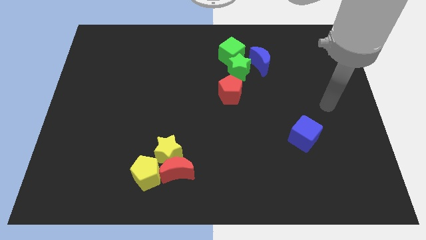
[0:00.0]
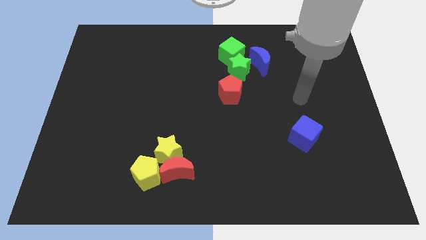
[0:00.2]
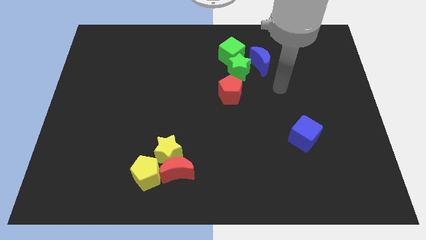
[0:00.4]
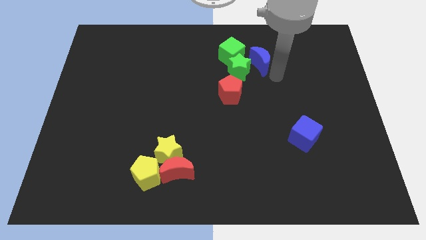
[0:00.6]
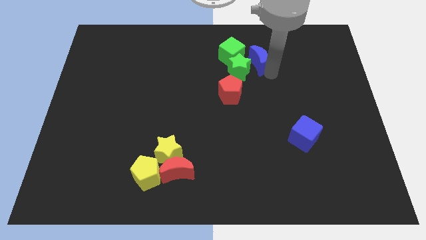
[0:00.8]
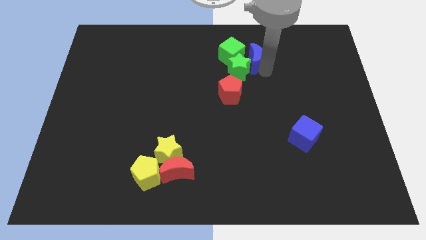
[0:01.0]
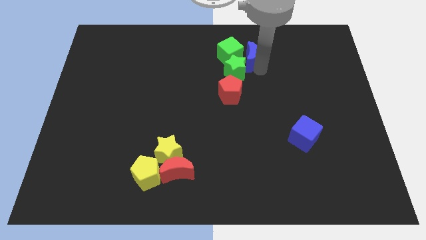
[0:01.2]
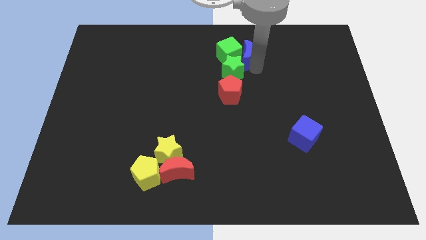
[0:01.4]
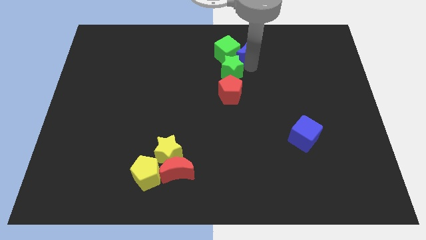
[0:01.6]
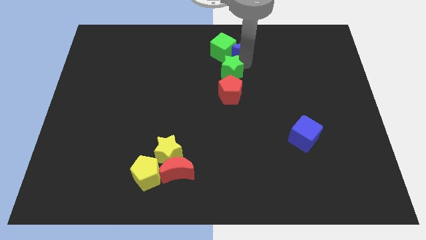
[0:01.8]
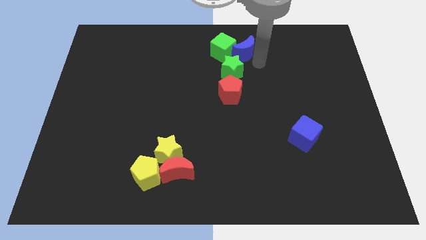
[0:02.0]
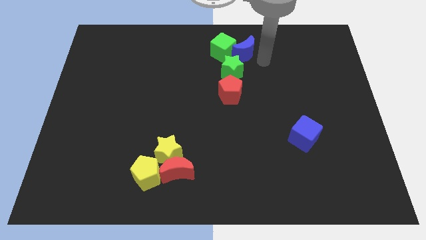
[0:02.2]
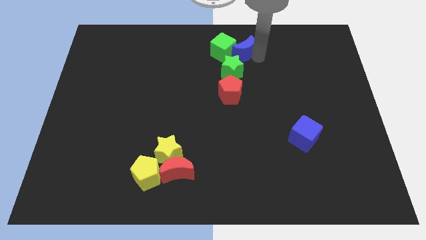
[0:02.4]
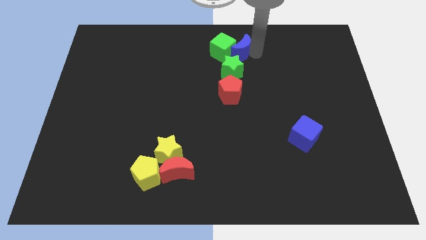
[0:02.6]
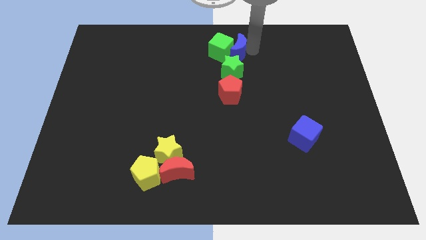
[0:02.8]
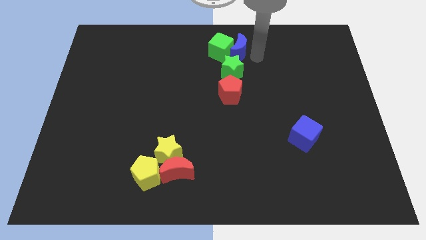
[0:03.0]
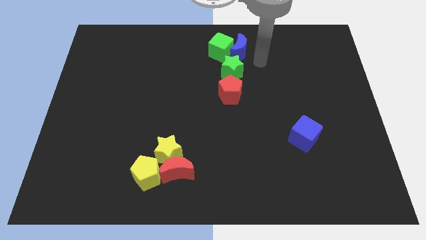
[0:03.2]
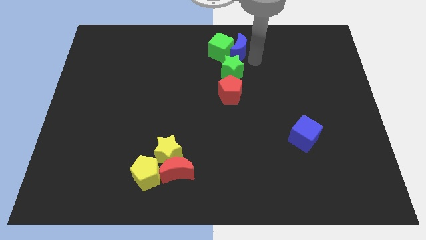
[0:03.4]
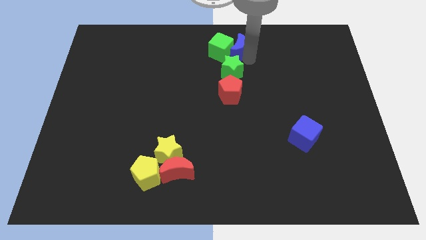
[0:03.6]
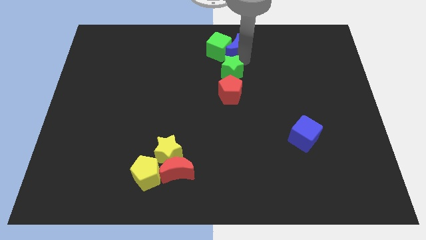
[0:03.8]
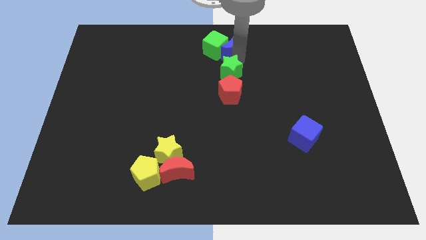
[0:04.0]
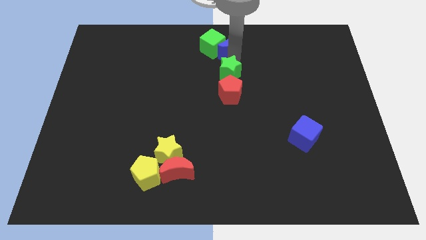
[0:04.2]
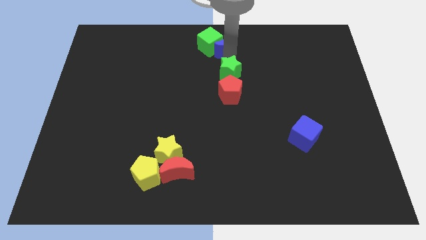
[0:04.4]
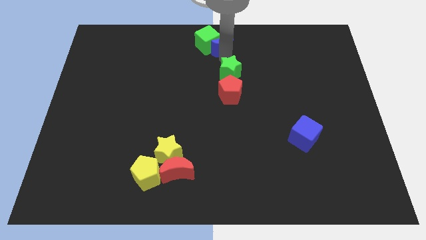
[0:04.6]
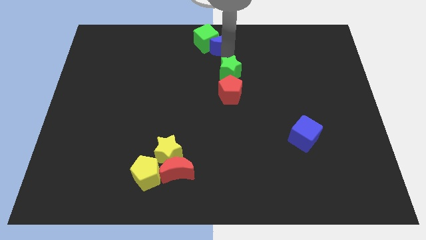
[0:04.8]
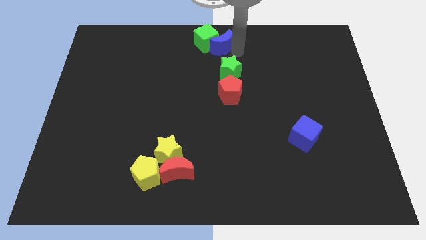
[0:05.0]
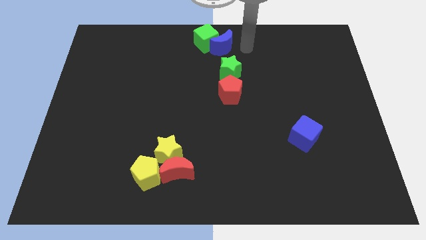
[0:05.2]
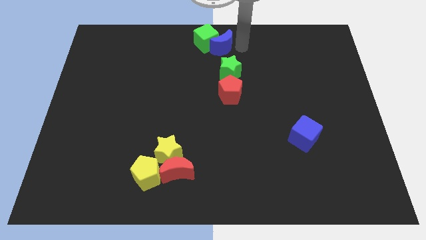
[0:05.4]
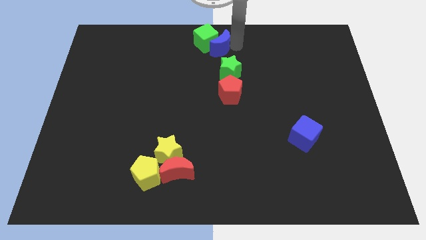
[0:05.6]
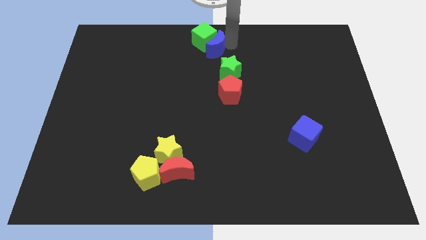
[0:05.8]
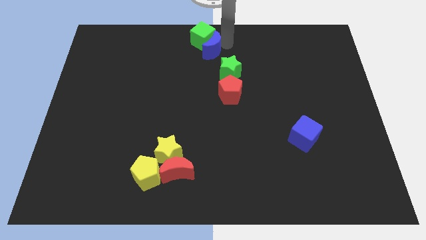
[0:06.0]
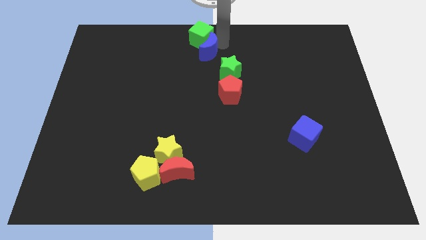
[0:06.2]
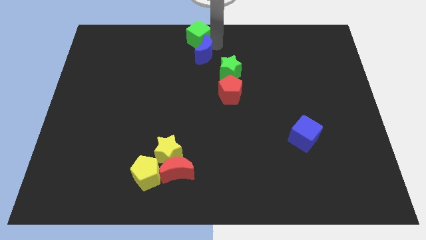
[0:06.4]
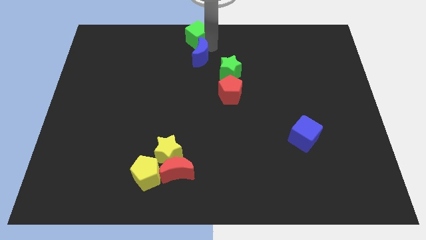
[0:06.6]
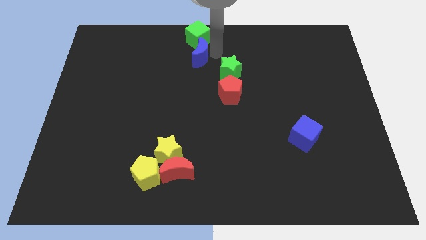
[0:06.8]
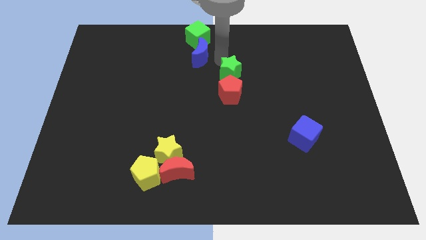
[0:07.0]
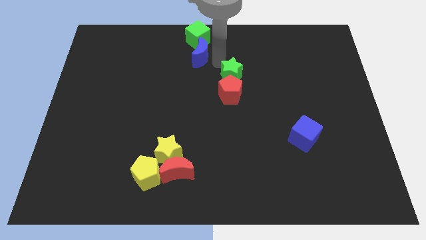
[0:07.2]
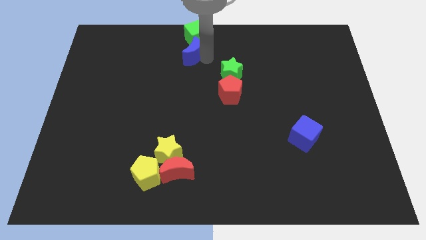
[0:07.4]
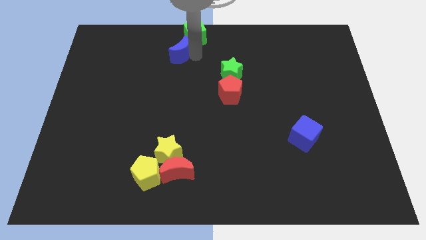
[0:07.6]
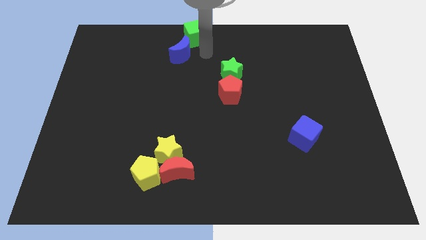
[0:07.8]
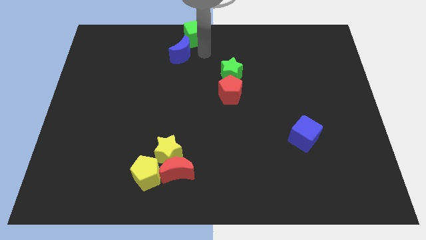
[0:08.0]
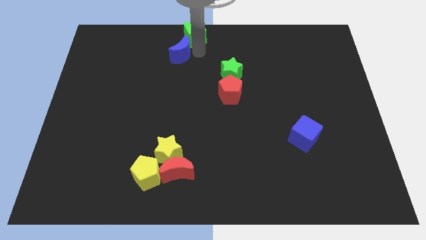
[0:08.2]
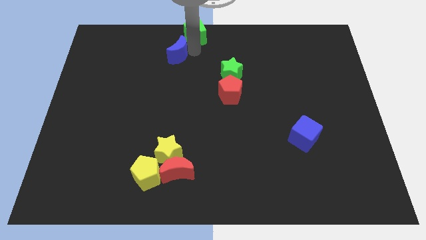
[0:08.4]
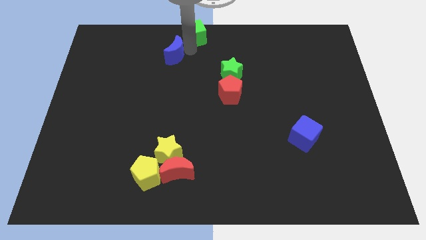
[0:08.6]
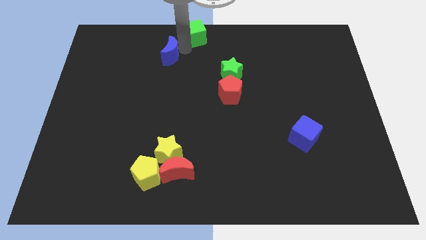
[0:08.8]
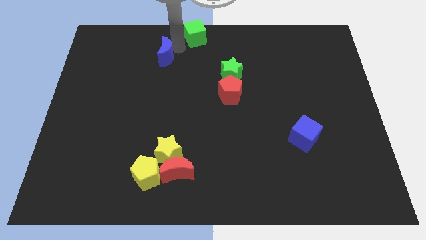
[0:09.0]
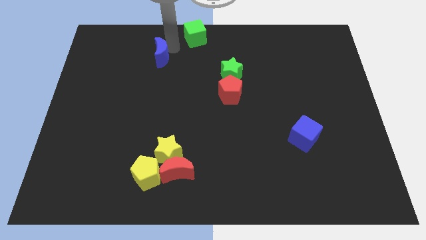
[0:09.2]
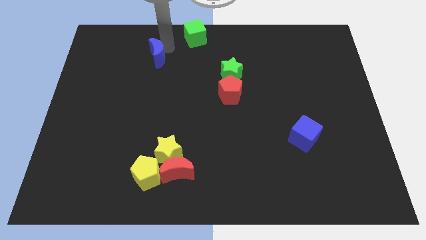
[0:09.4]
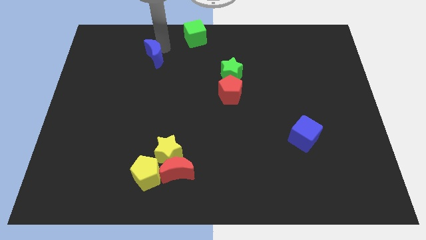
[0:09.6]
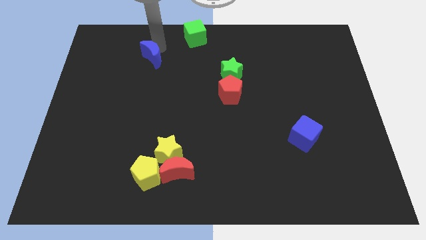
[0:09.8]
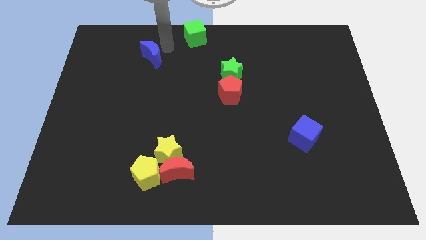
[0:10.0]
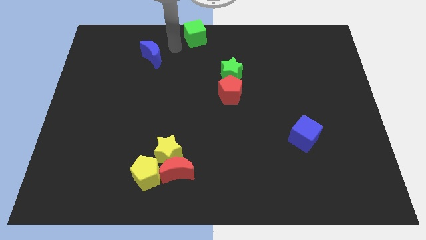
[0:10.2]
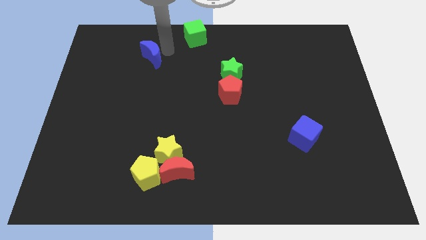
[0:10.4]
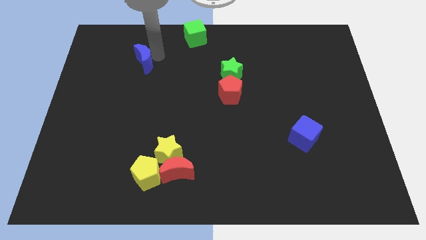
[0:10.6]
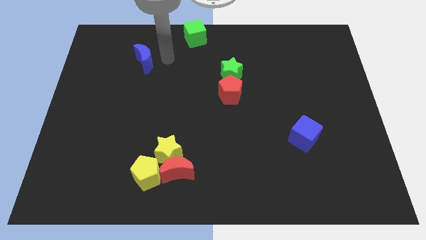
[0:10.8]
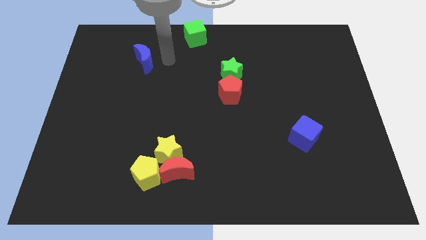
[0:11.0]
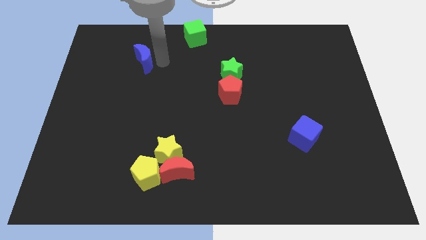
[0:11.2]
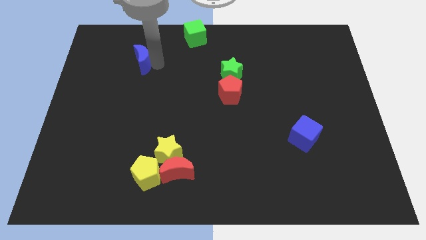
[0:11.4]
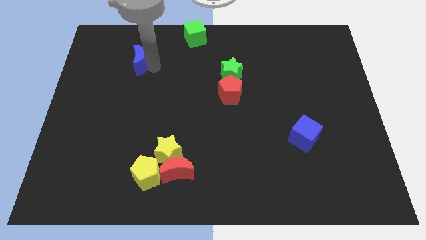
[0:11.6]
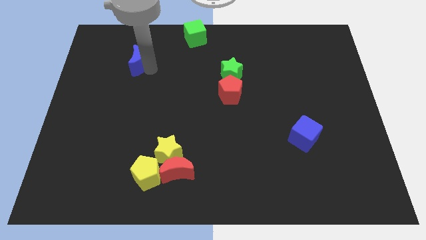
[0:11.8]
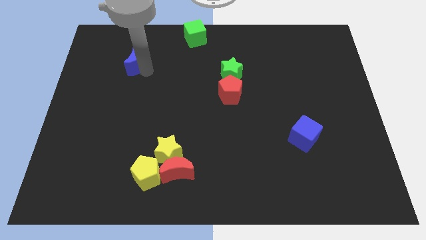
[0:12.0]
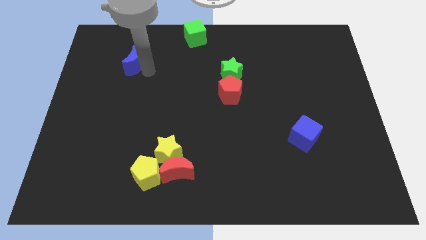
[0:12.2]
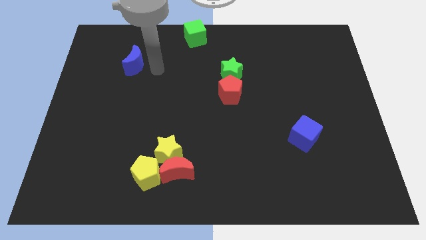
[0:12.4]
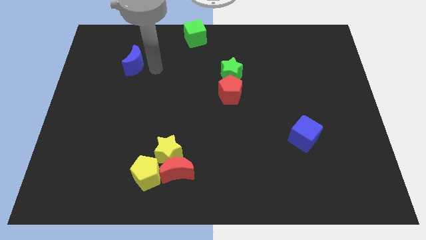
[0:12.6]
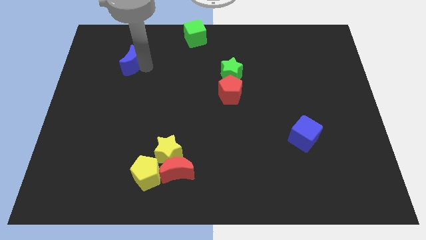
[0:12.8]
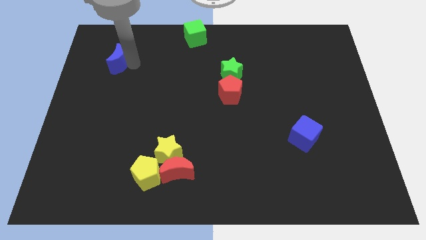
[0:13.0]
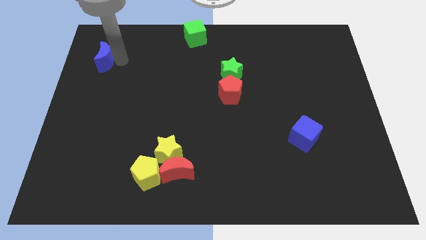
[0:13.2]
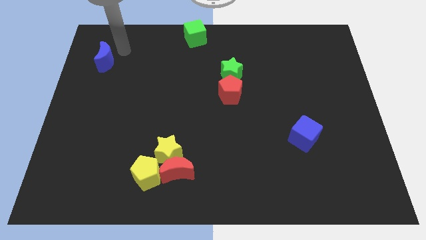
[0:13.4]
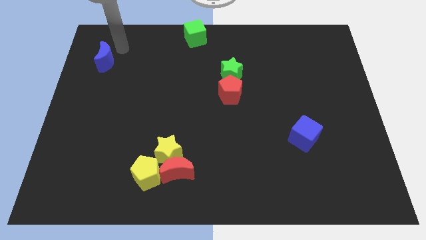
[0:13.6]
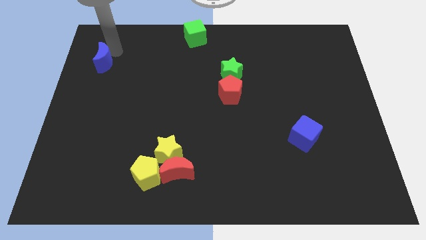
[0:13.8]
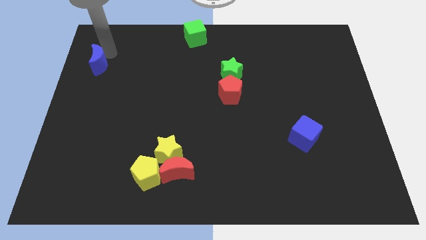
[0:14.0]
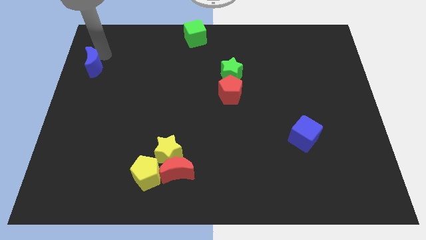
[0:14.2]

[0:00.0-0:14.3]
push the blue moon to the center left

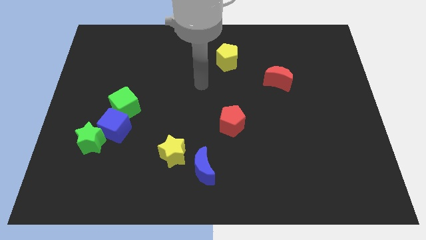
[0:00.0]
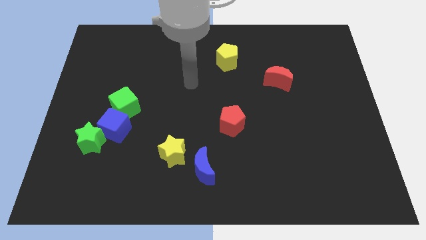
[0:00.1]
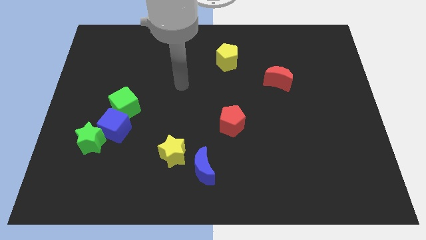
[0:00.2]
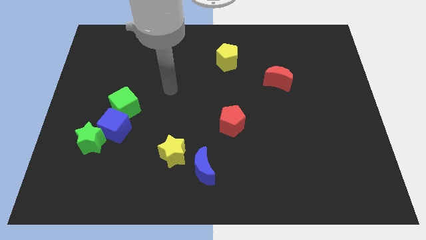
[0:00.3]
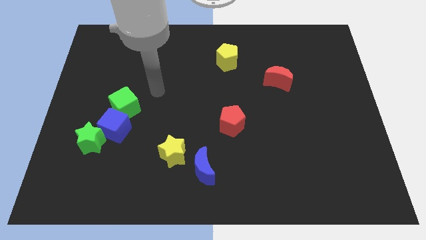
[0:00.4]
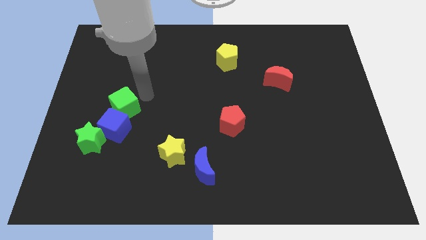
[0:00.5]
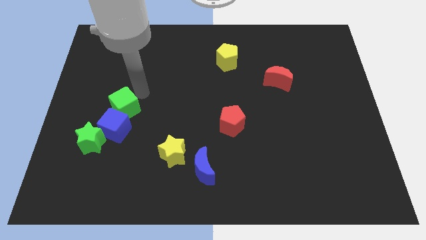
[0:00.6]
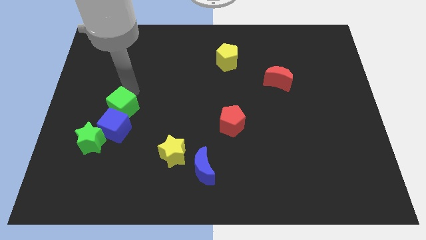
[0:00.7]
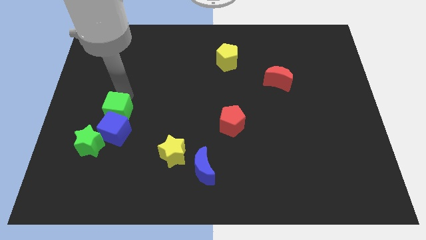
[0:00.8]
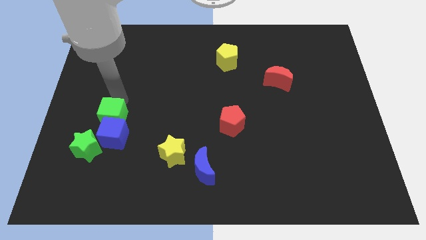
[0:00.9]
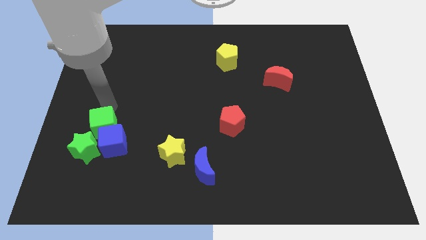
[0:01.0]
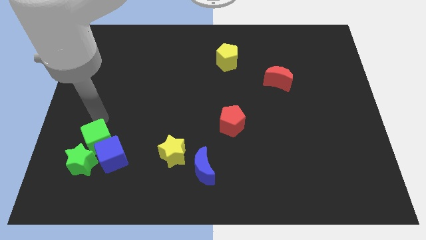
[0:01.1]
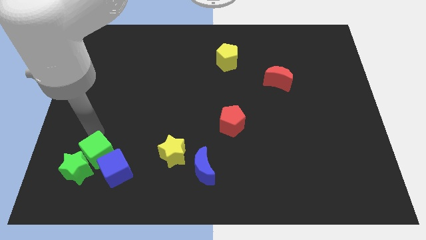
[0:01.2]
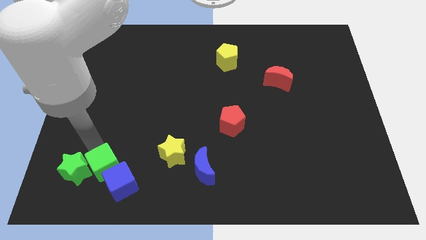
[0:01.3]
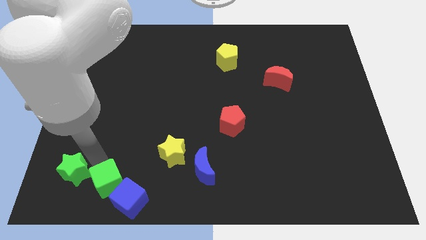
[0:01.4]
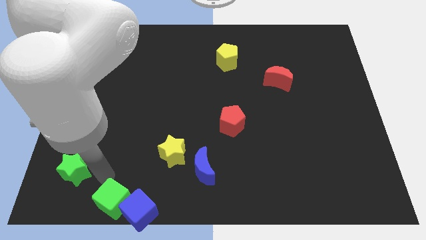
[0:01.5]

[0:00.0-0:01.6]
slide the blue cube to the bottom
